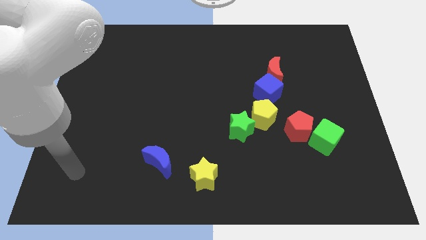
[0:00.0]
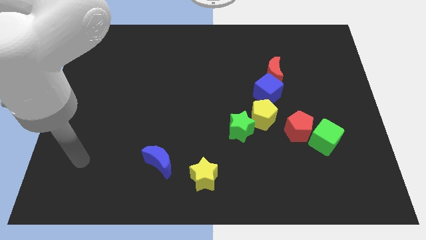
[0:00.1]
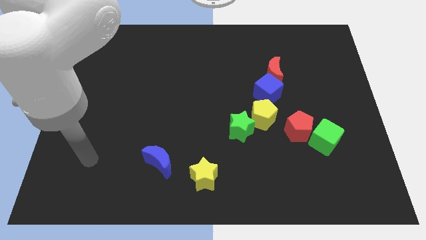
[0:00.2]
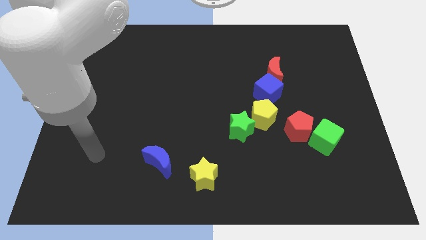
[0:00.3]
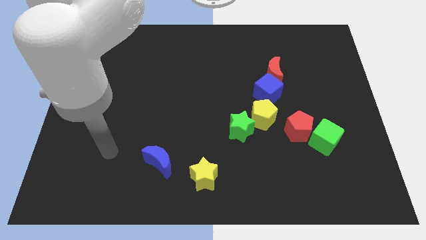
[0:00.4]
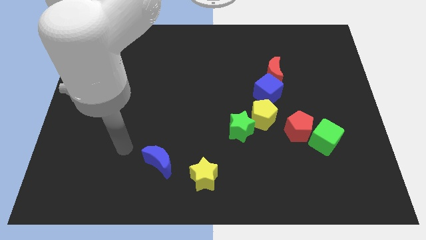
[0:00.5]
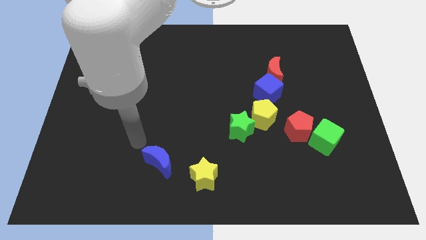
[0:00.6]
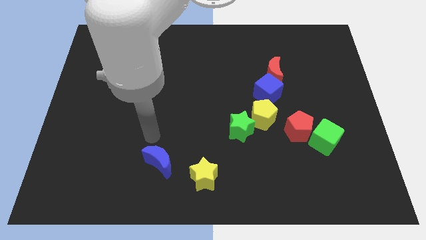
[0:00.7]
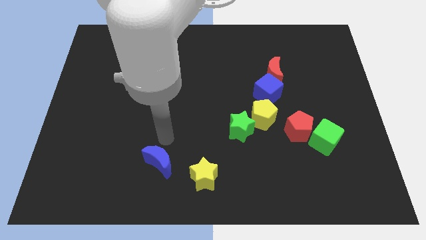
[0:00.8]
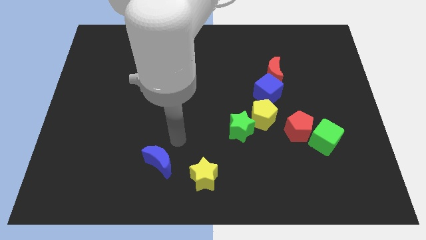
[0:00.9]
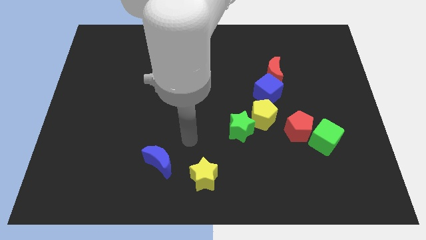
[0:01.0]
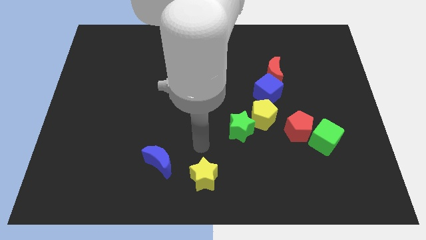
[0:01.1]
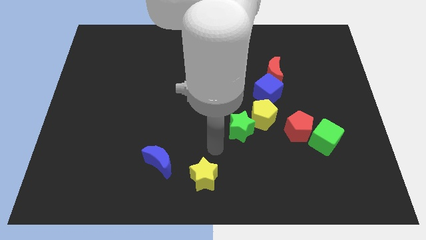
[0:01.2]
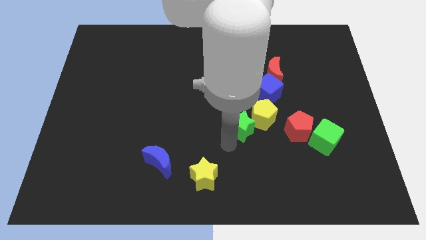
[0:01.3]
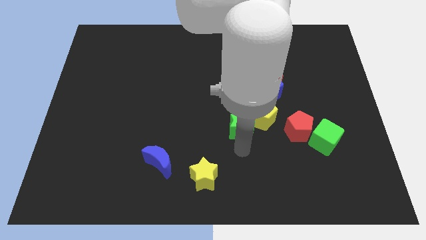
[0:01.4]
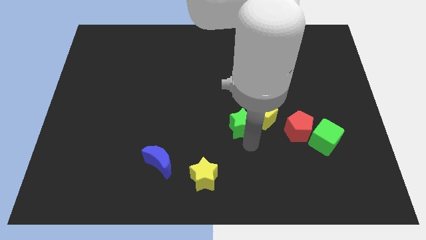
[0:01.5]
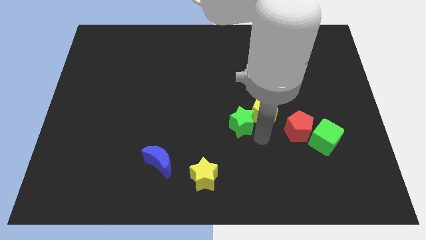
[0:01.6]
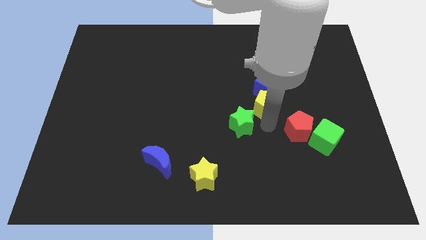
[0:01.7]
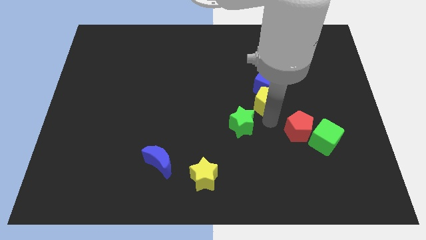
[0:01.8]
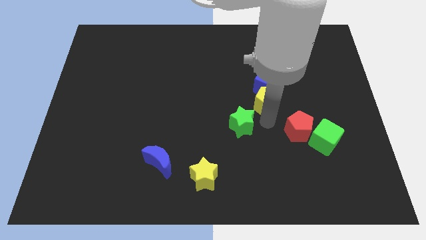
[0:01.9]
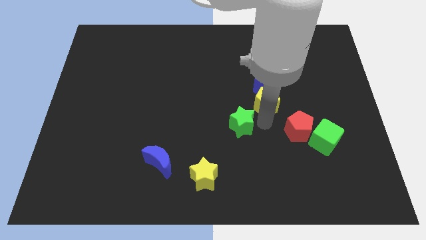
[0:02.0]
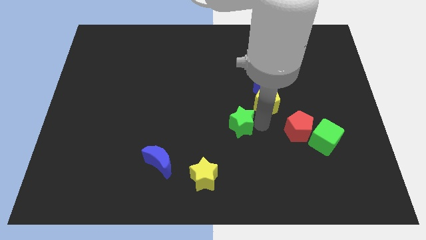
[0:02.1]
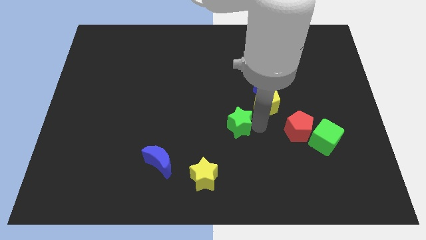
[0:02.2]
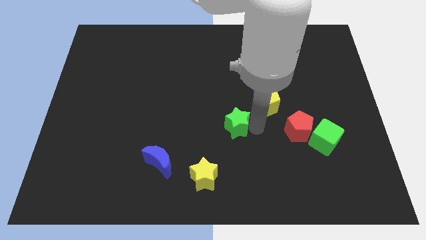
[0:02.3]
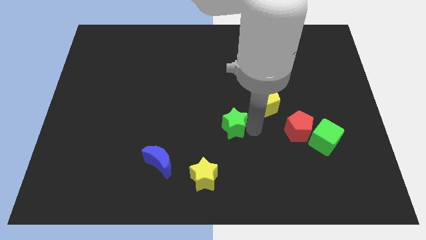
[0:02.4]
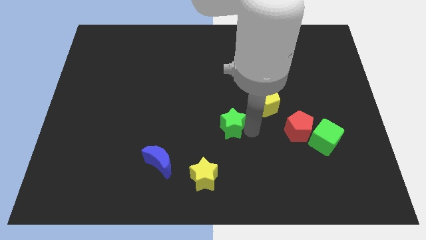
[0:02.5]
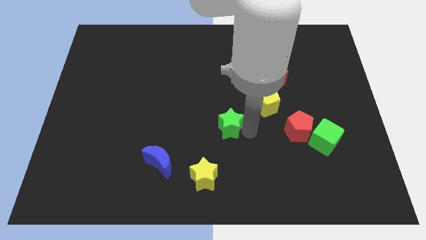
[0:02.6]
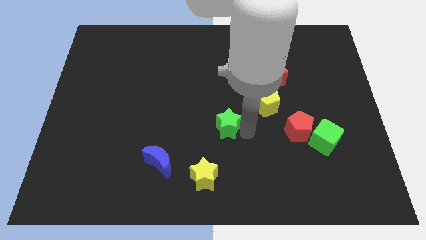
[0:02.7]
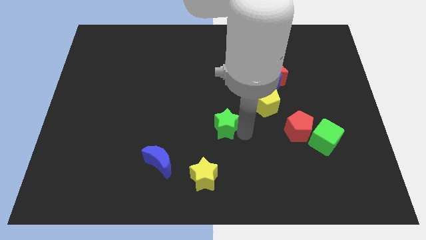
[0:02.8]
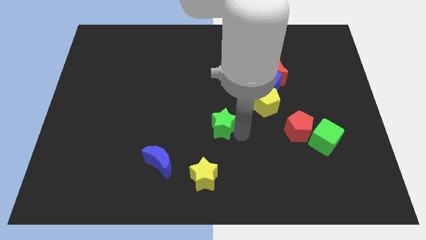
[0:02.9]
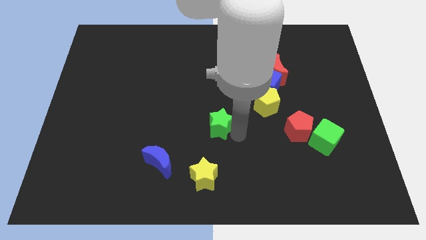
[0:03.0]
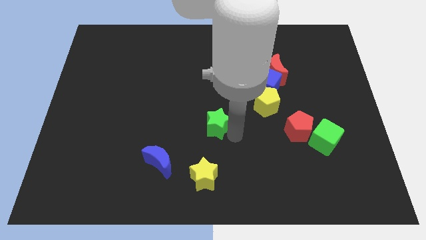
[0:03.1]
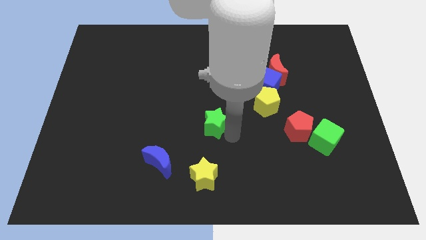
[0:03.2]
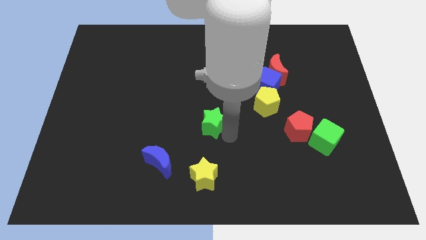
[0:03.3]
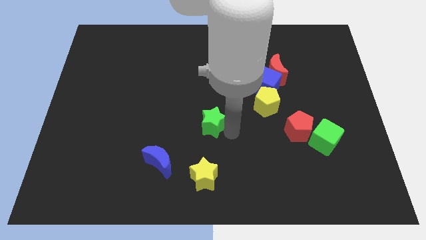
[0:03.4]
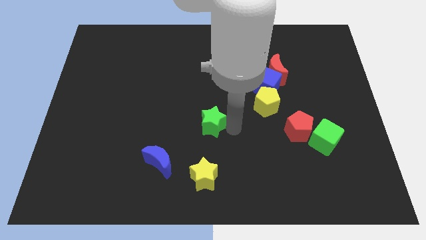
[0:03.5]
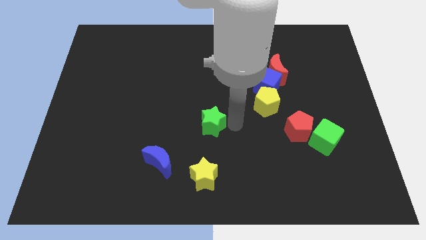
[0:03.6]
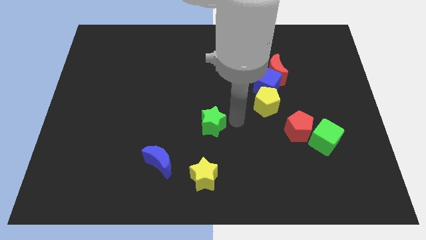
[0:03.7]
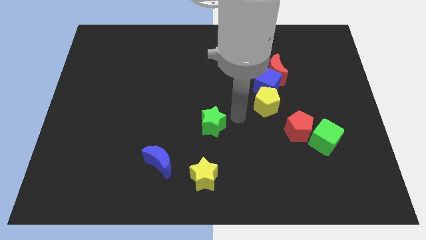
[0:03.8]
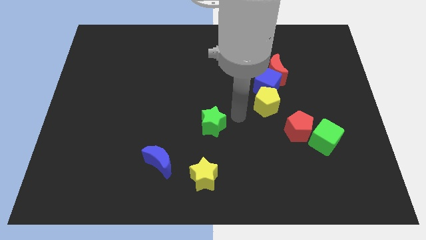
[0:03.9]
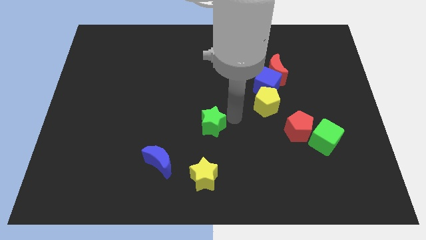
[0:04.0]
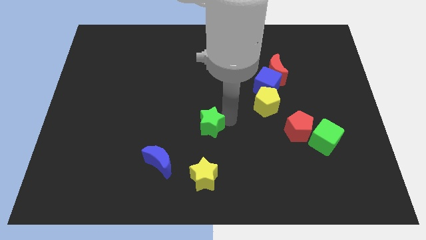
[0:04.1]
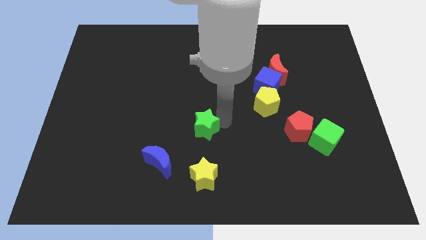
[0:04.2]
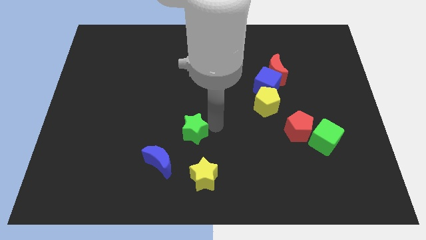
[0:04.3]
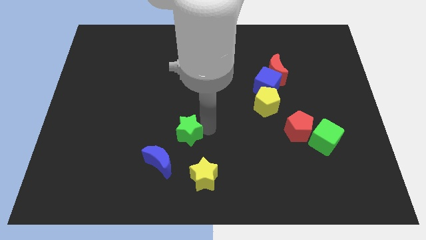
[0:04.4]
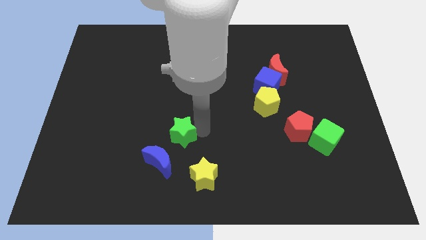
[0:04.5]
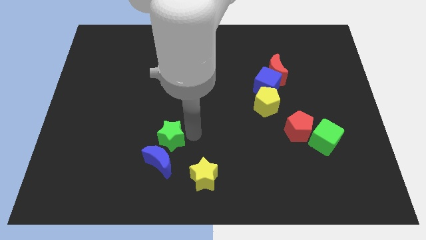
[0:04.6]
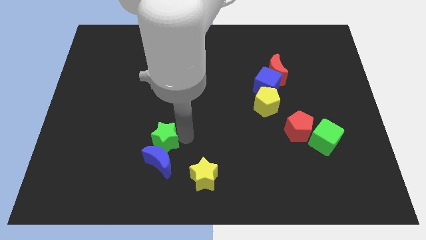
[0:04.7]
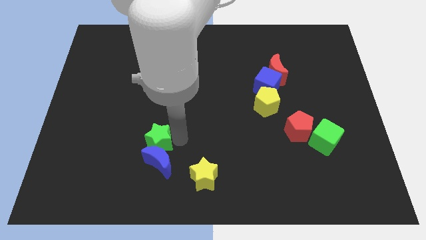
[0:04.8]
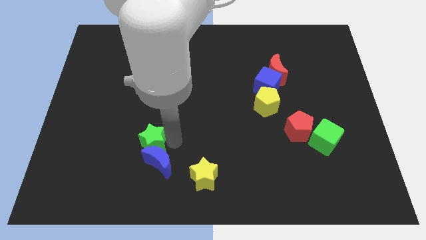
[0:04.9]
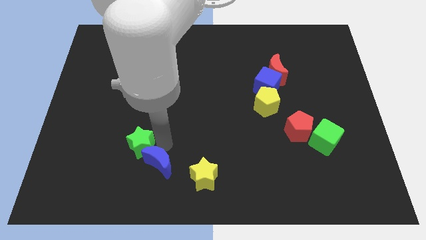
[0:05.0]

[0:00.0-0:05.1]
push the green star left

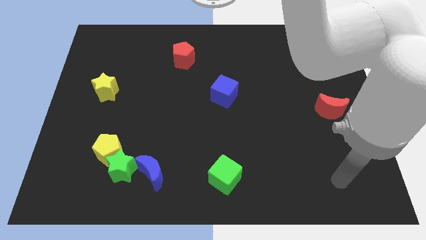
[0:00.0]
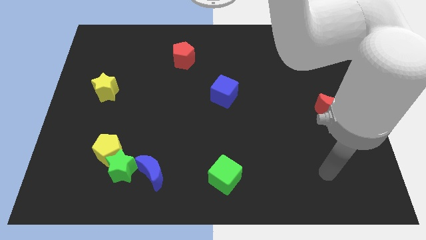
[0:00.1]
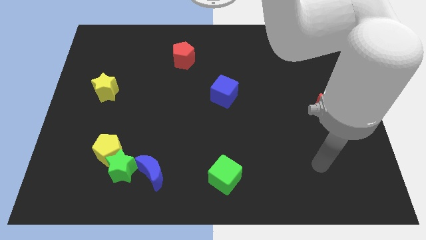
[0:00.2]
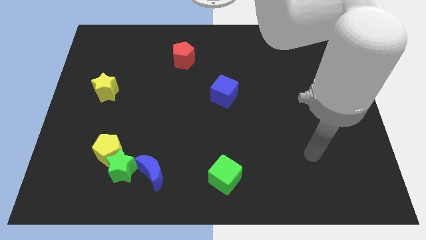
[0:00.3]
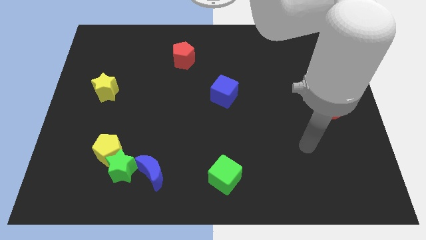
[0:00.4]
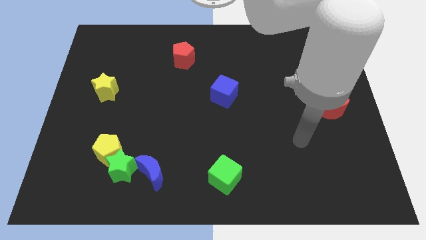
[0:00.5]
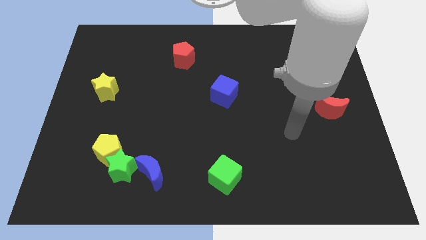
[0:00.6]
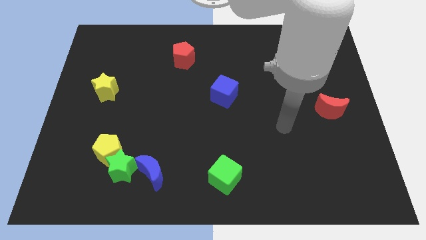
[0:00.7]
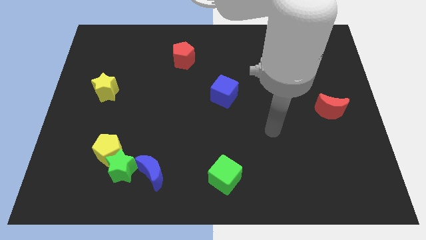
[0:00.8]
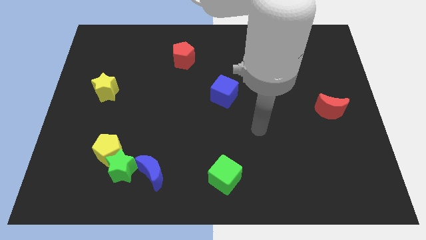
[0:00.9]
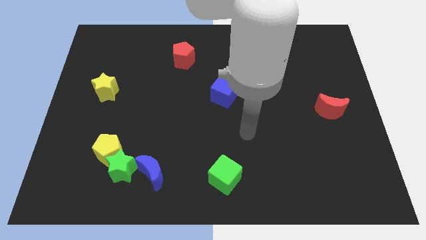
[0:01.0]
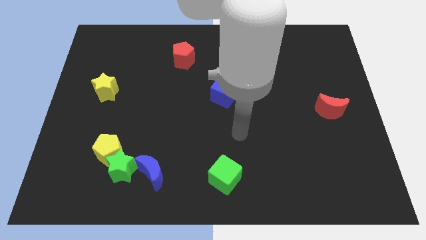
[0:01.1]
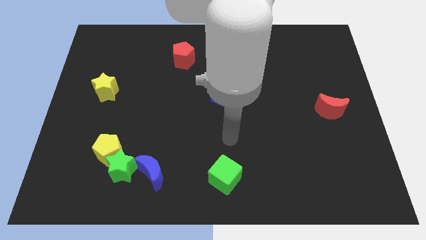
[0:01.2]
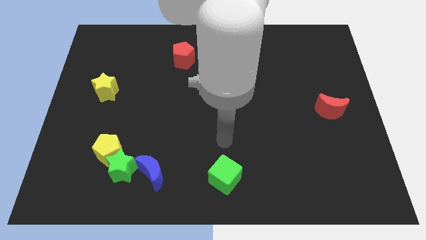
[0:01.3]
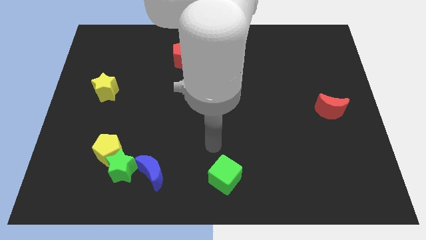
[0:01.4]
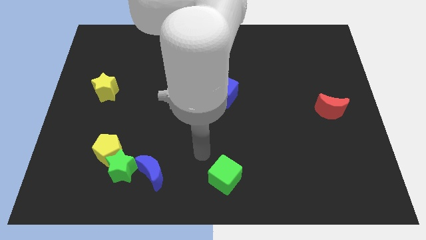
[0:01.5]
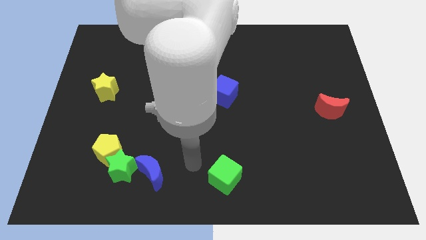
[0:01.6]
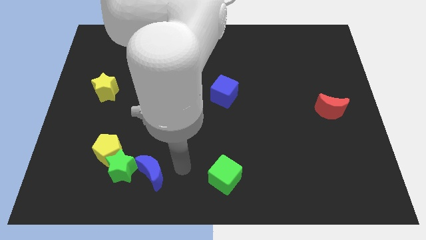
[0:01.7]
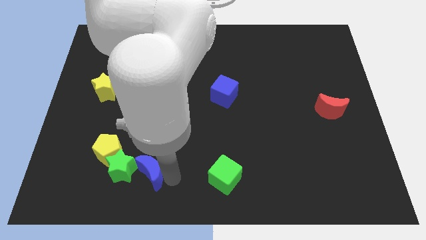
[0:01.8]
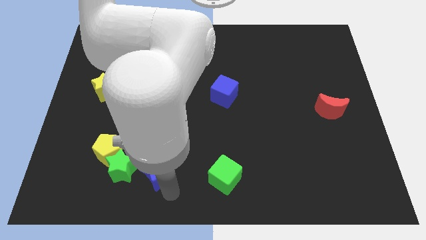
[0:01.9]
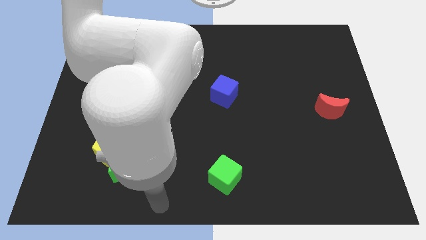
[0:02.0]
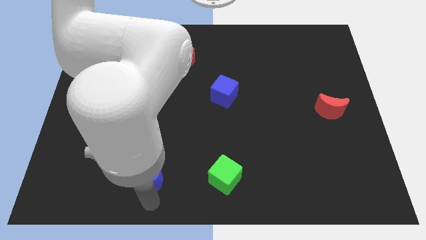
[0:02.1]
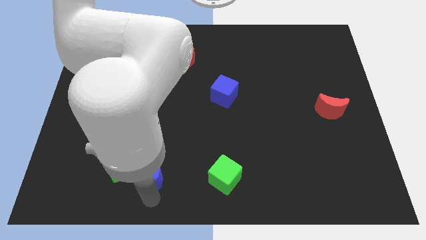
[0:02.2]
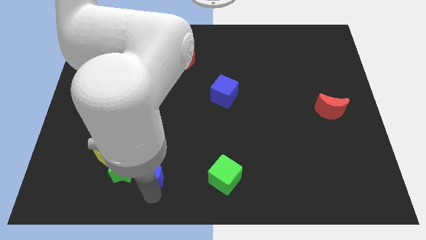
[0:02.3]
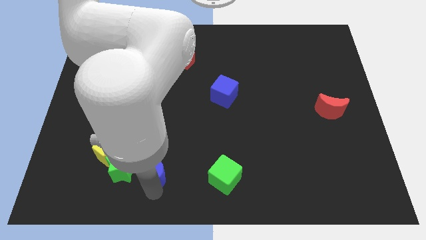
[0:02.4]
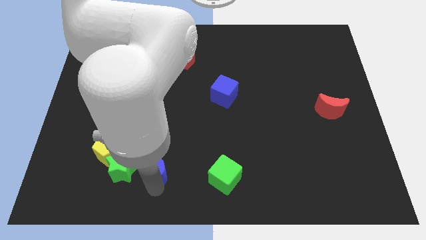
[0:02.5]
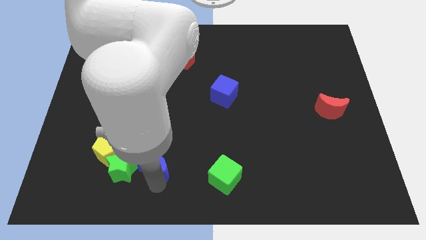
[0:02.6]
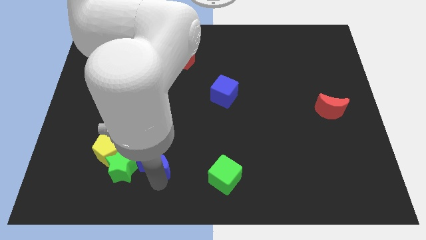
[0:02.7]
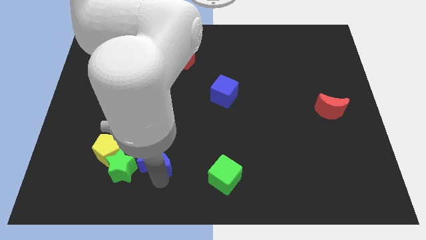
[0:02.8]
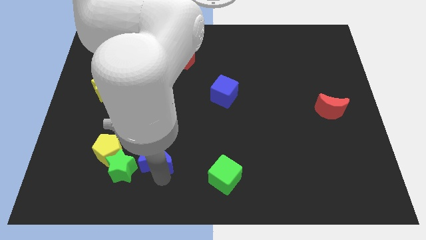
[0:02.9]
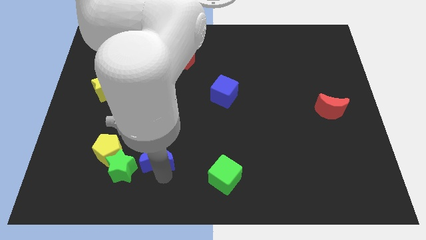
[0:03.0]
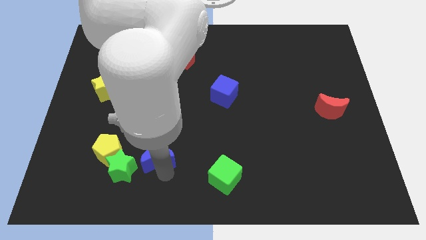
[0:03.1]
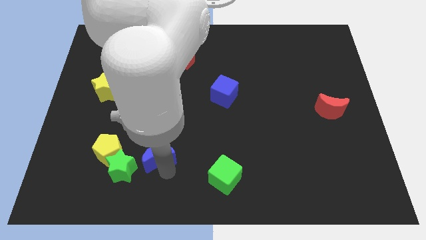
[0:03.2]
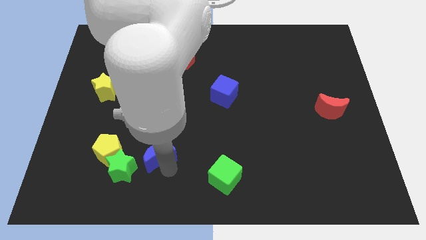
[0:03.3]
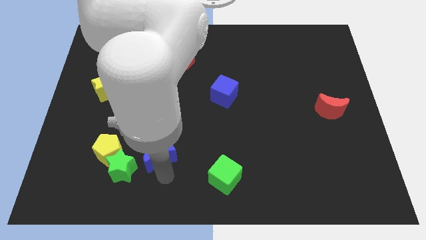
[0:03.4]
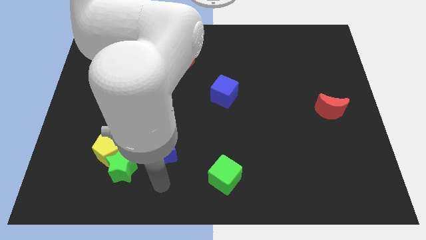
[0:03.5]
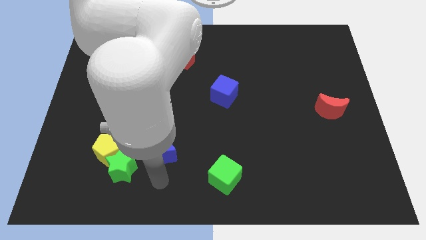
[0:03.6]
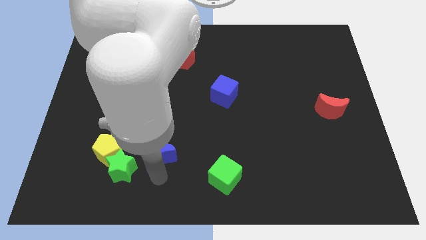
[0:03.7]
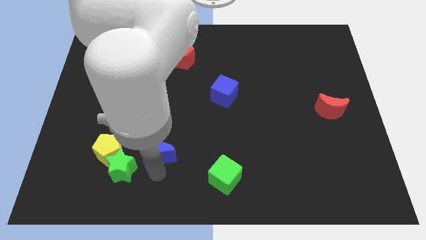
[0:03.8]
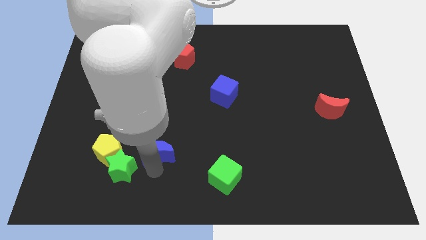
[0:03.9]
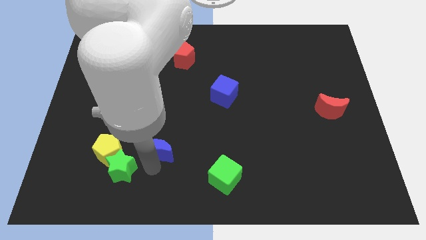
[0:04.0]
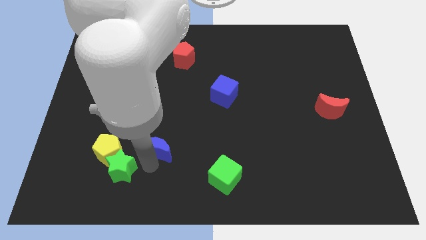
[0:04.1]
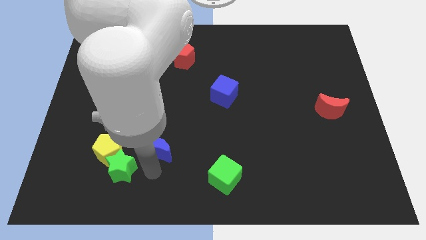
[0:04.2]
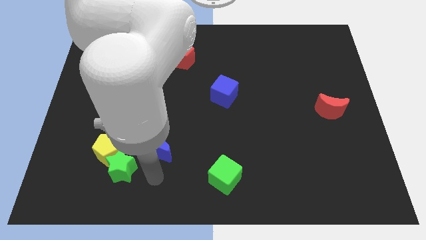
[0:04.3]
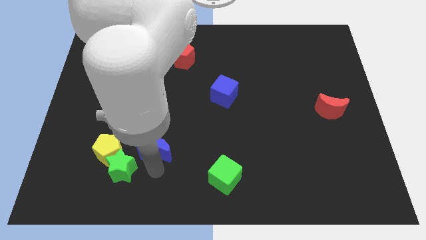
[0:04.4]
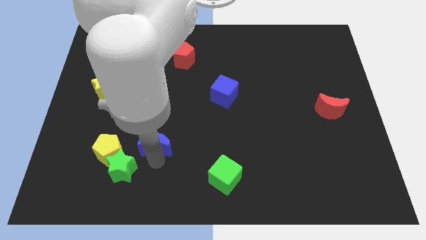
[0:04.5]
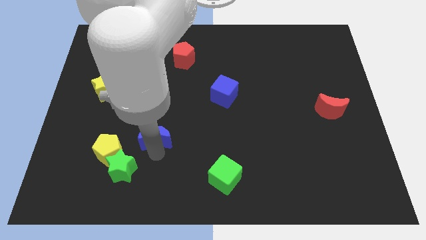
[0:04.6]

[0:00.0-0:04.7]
slightly push the blue moon up
